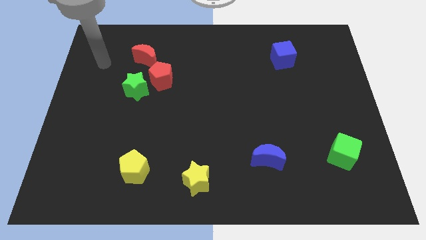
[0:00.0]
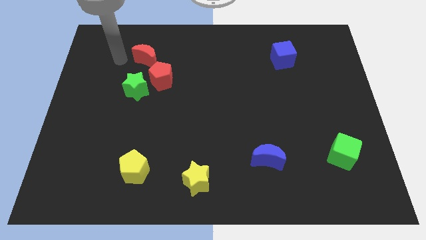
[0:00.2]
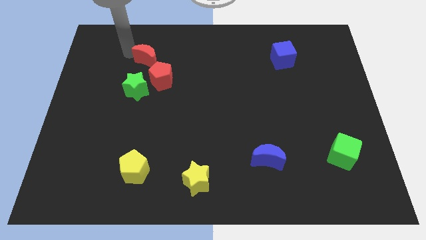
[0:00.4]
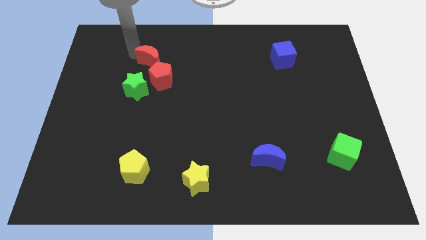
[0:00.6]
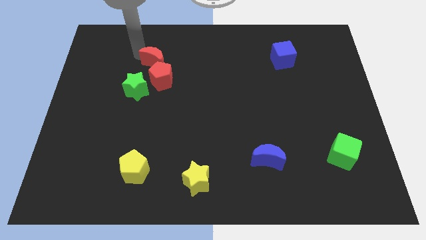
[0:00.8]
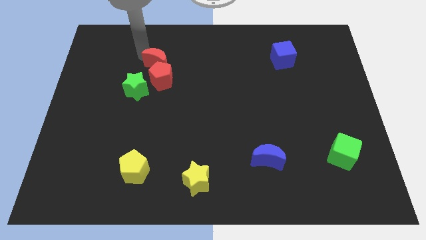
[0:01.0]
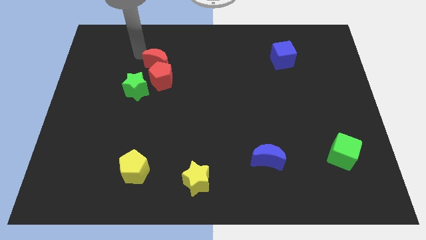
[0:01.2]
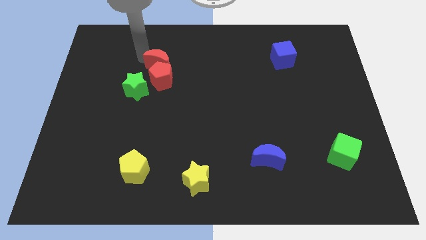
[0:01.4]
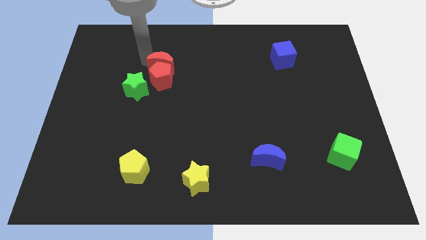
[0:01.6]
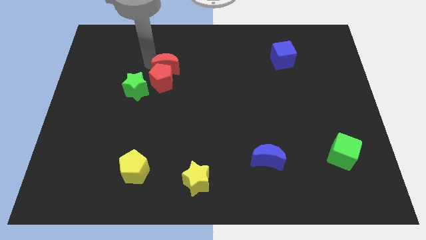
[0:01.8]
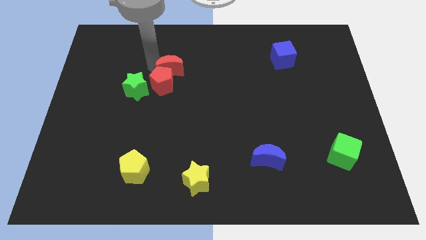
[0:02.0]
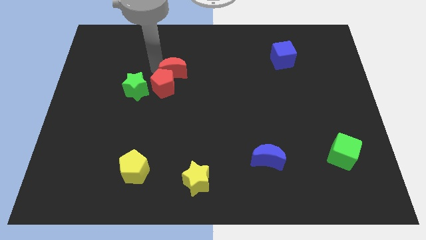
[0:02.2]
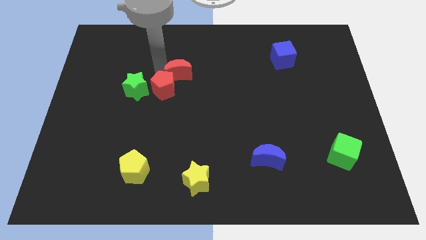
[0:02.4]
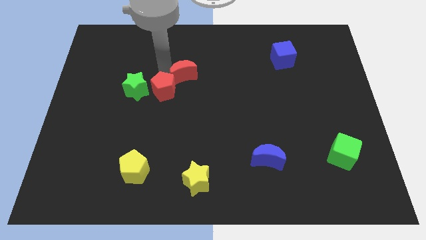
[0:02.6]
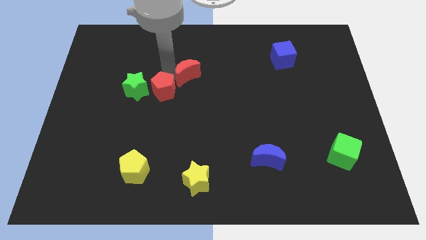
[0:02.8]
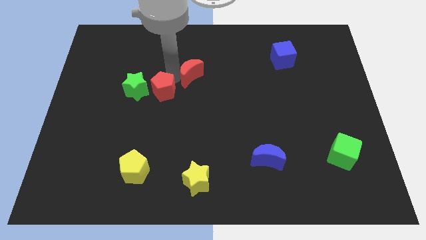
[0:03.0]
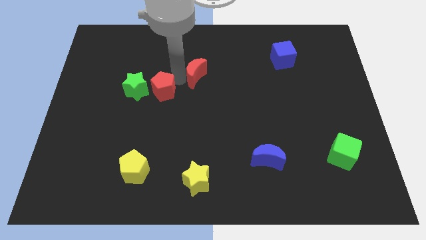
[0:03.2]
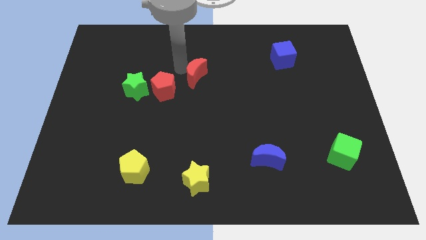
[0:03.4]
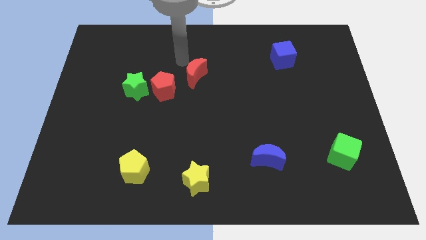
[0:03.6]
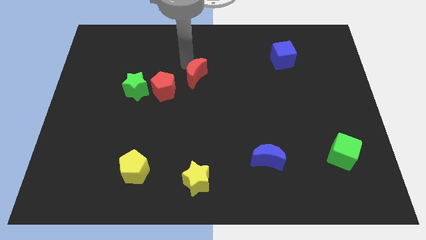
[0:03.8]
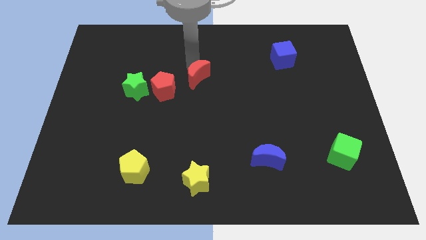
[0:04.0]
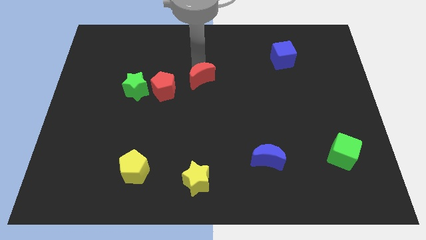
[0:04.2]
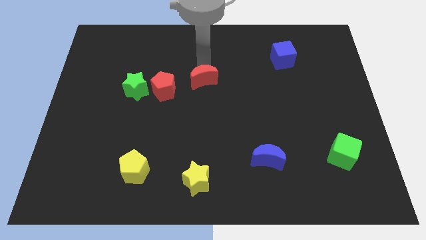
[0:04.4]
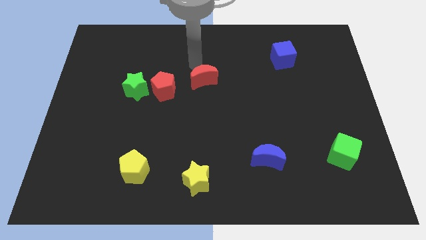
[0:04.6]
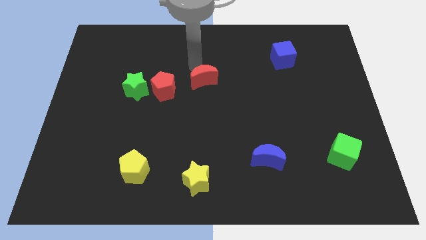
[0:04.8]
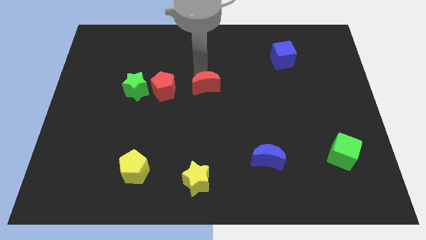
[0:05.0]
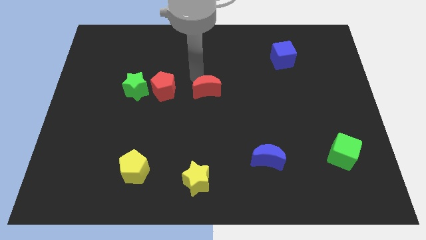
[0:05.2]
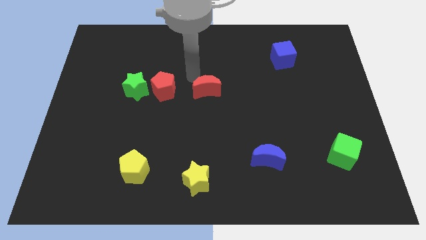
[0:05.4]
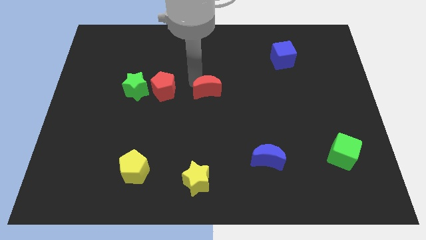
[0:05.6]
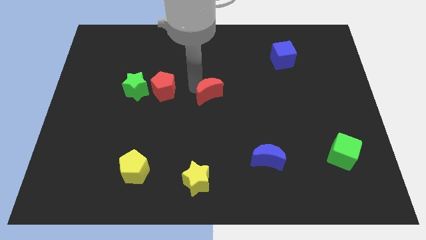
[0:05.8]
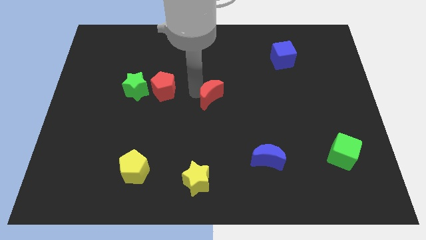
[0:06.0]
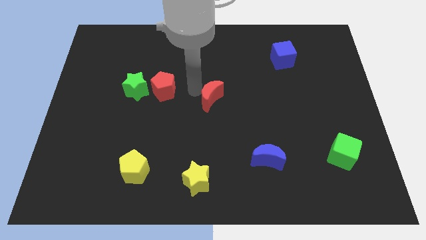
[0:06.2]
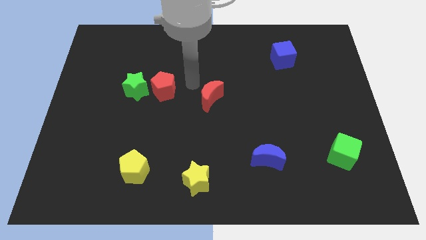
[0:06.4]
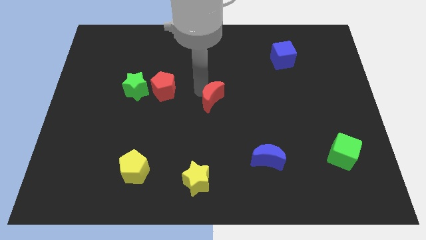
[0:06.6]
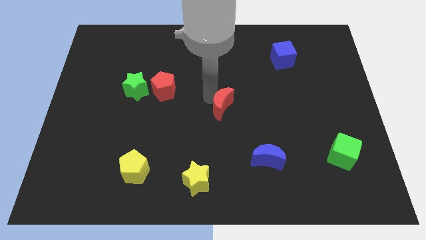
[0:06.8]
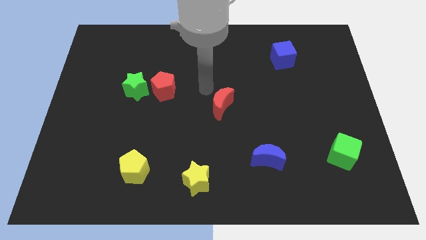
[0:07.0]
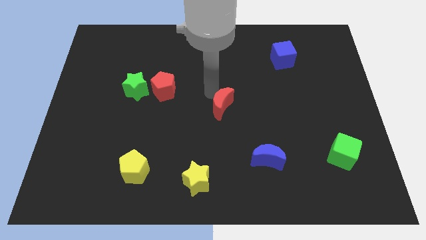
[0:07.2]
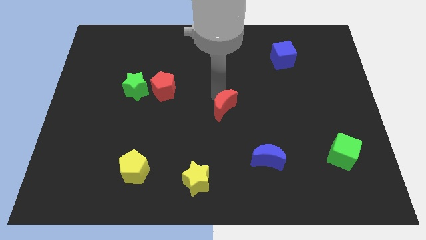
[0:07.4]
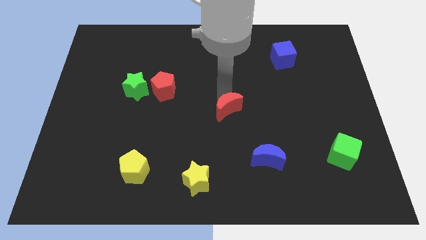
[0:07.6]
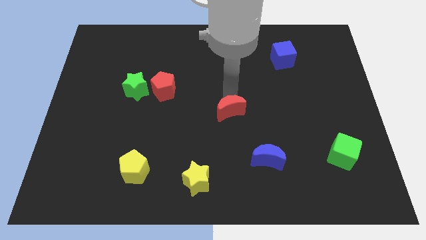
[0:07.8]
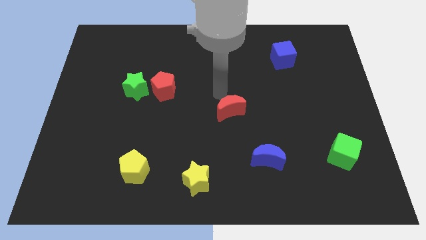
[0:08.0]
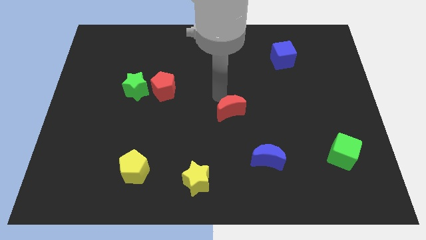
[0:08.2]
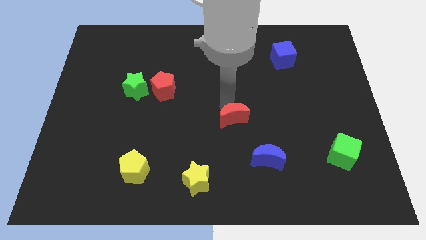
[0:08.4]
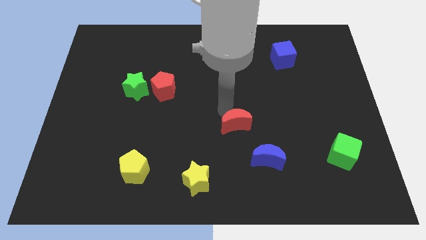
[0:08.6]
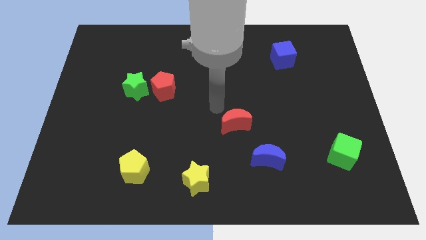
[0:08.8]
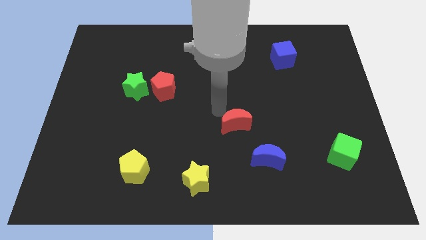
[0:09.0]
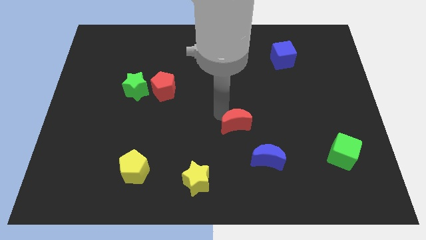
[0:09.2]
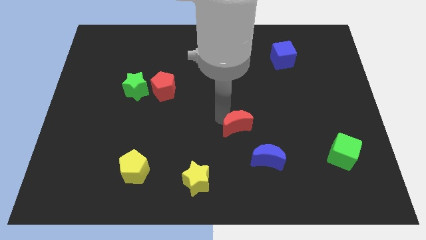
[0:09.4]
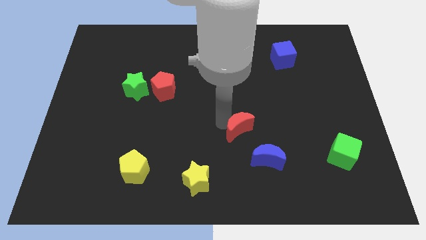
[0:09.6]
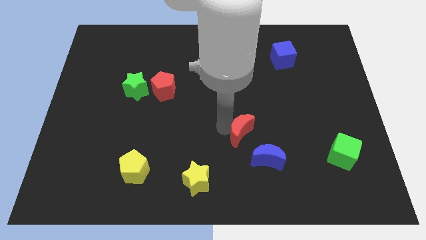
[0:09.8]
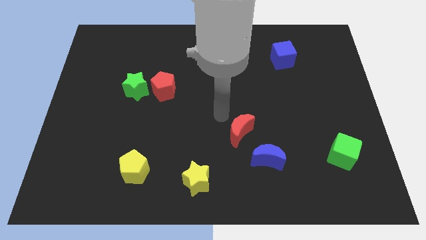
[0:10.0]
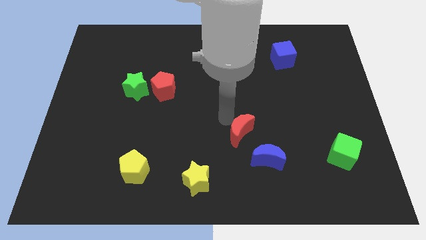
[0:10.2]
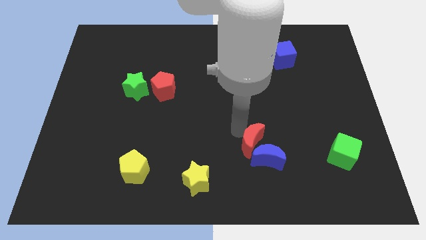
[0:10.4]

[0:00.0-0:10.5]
put the red moon towards the blue moon

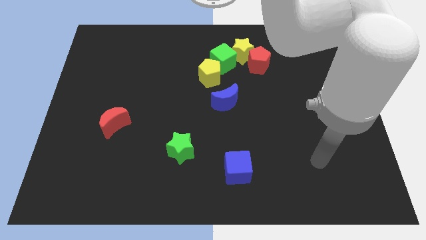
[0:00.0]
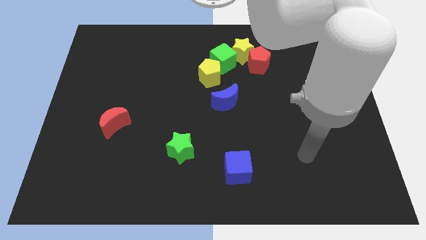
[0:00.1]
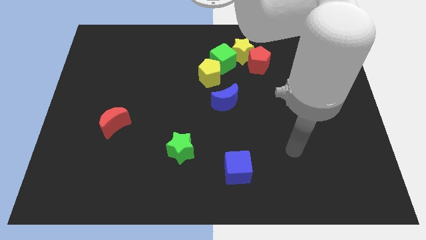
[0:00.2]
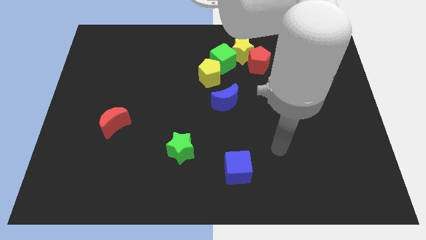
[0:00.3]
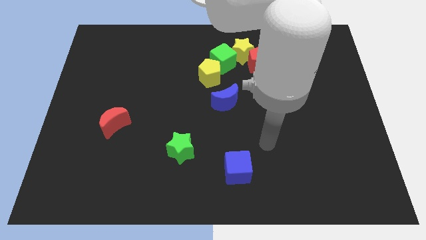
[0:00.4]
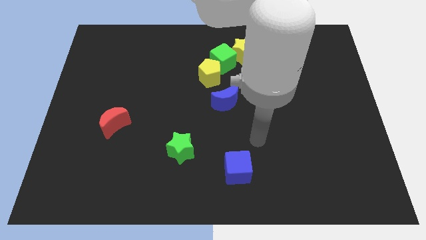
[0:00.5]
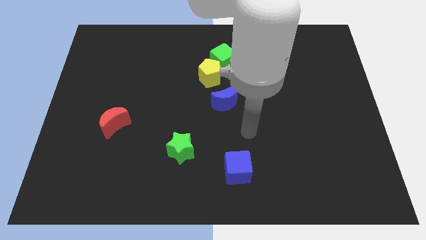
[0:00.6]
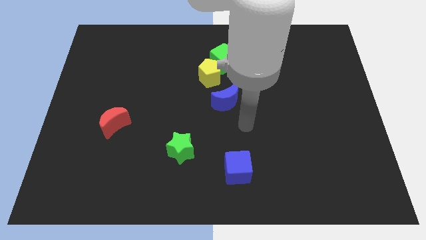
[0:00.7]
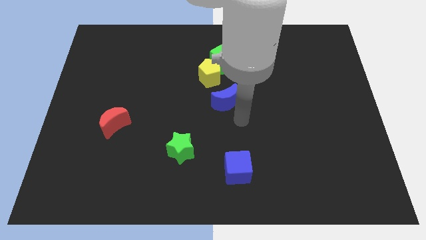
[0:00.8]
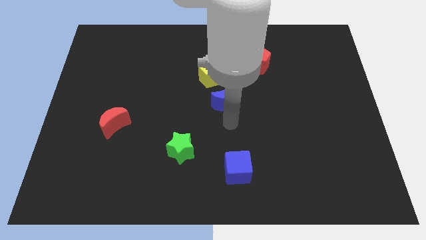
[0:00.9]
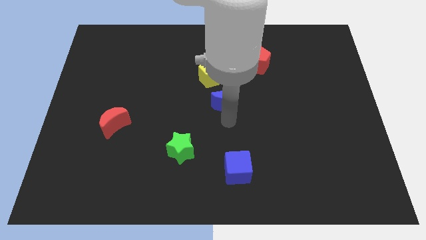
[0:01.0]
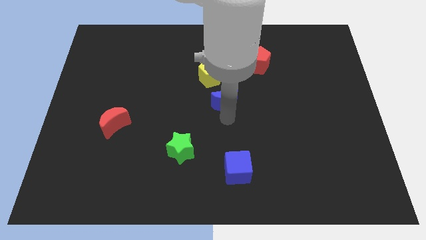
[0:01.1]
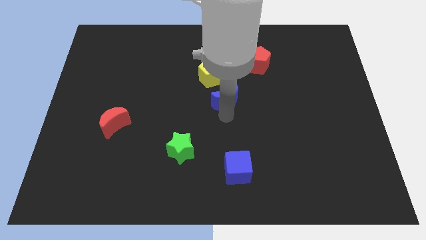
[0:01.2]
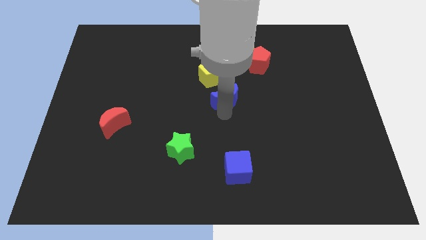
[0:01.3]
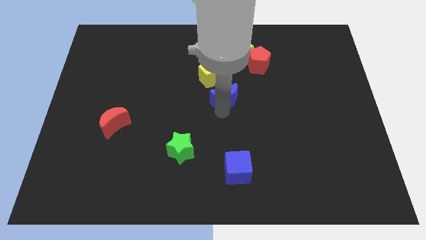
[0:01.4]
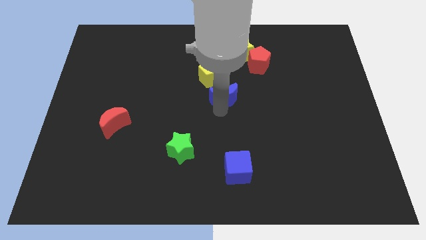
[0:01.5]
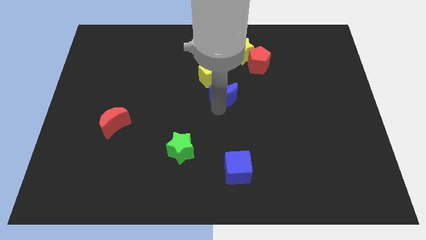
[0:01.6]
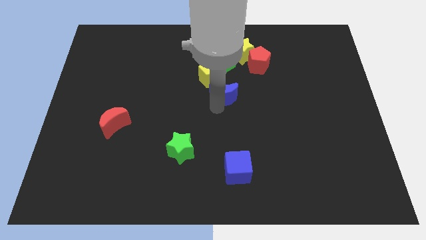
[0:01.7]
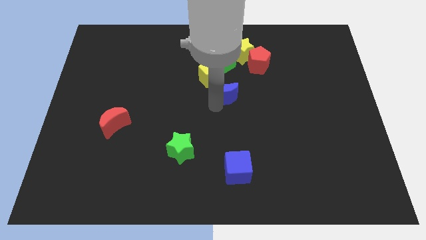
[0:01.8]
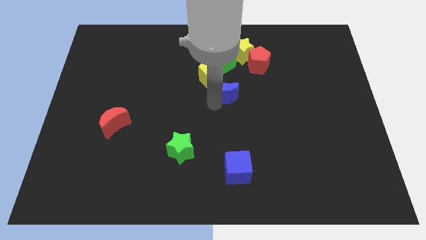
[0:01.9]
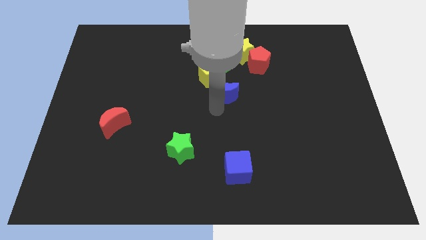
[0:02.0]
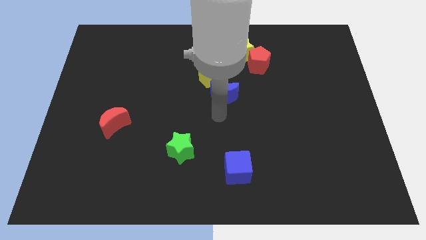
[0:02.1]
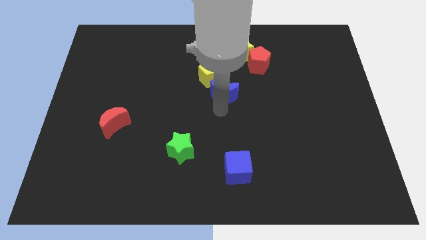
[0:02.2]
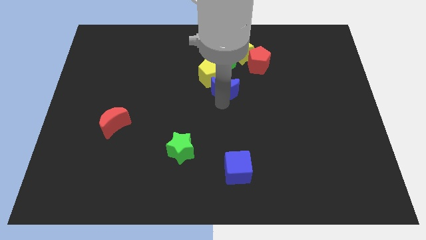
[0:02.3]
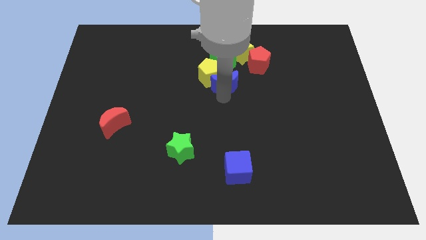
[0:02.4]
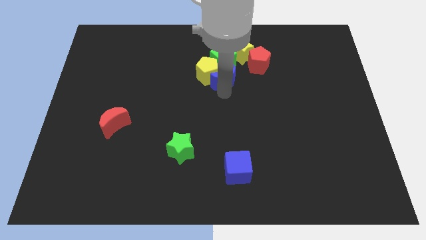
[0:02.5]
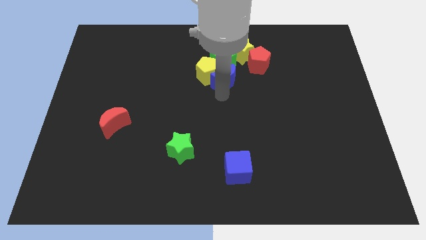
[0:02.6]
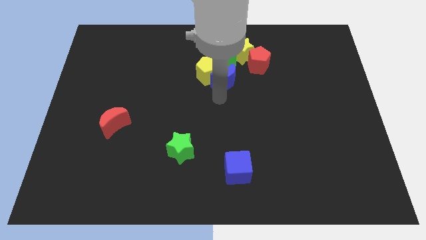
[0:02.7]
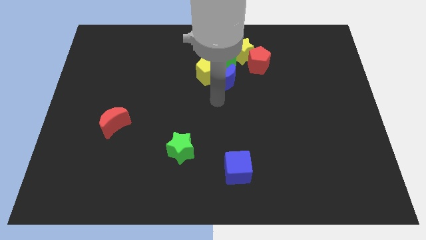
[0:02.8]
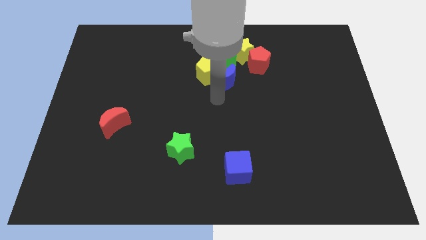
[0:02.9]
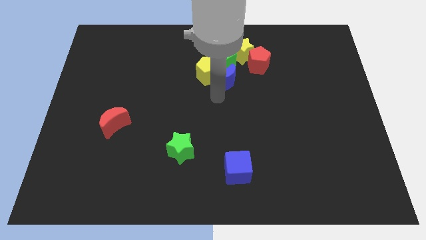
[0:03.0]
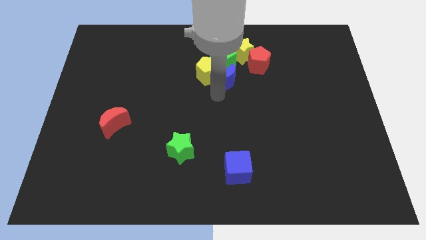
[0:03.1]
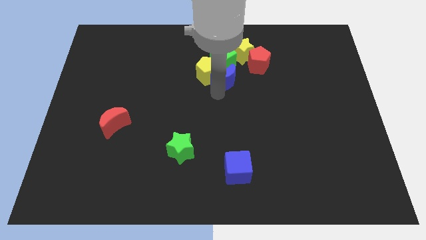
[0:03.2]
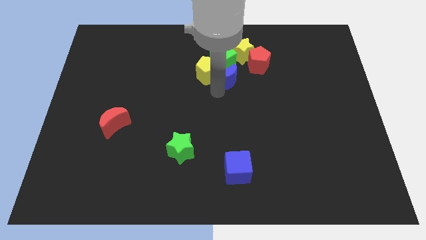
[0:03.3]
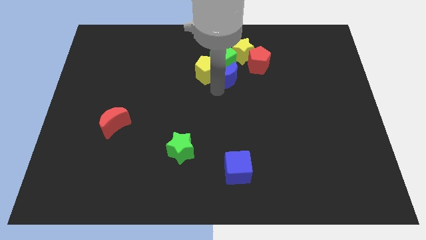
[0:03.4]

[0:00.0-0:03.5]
slide the blue moon close to the green cube
